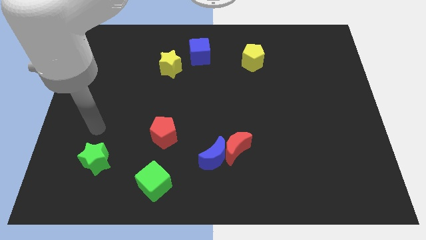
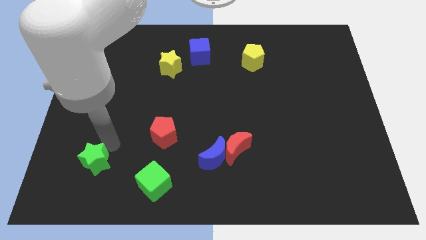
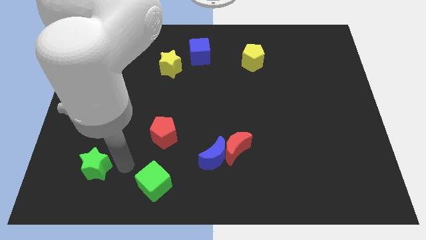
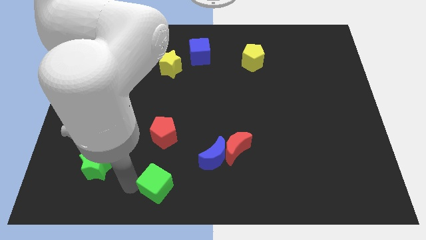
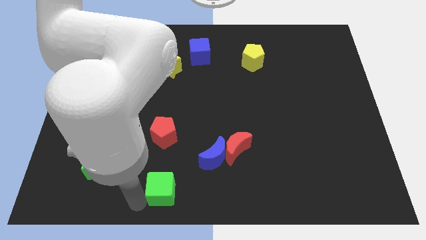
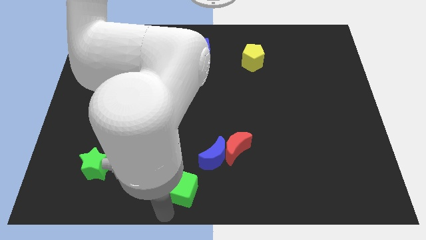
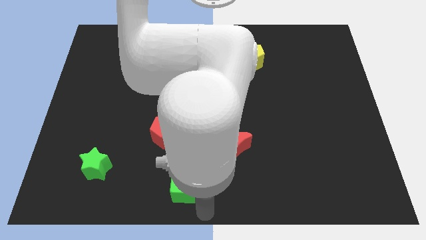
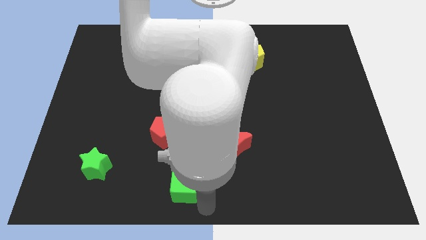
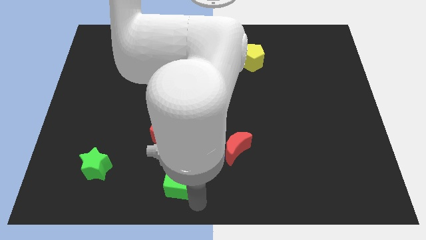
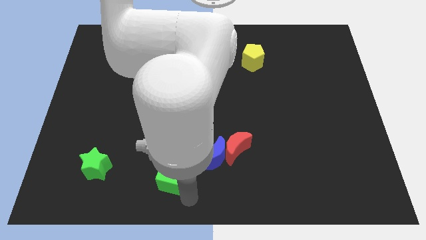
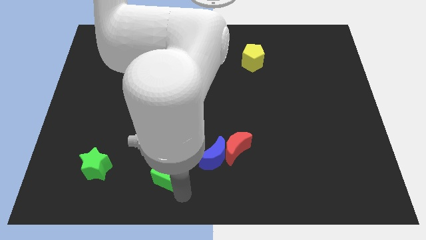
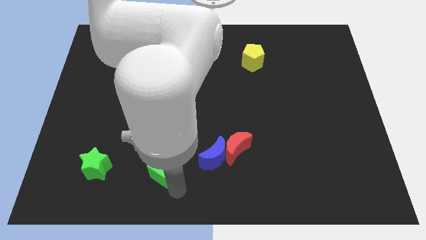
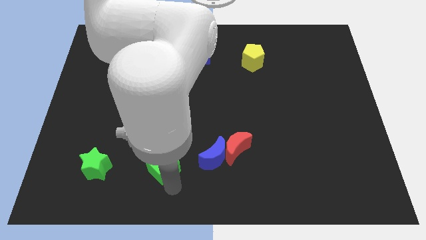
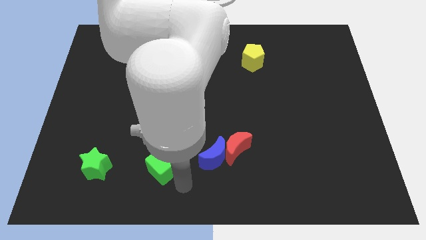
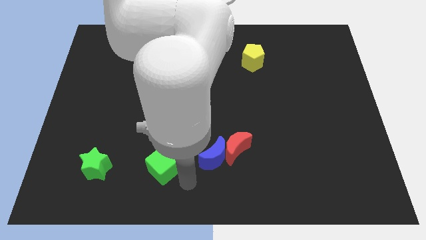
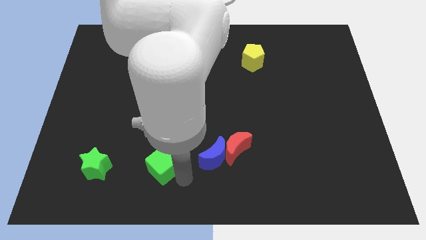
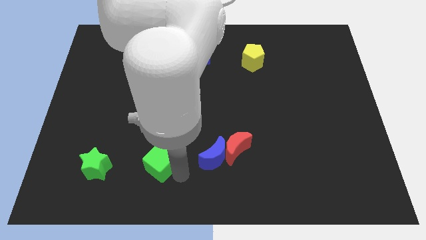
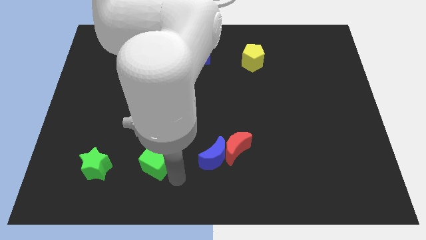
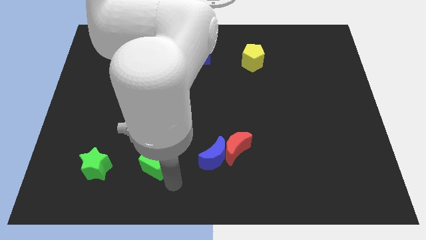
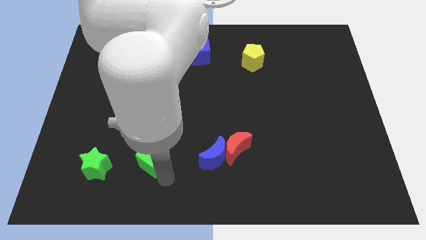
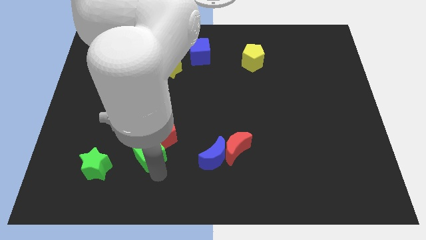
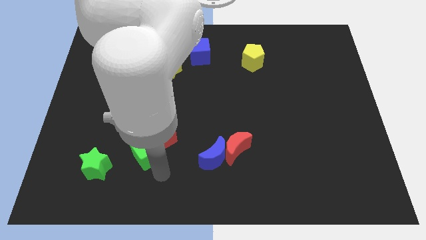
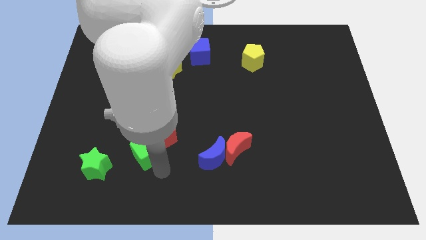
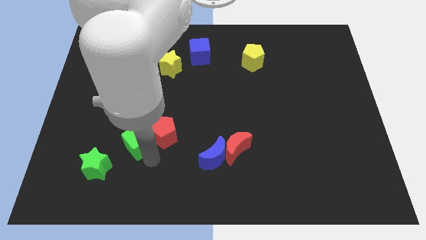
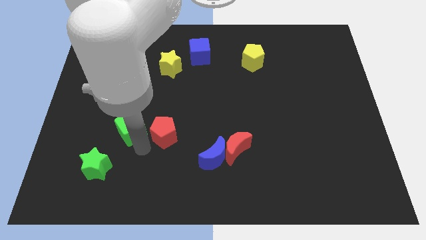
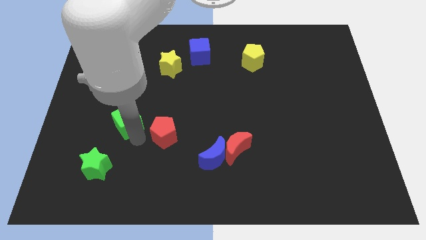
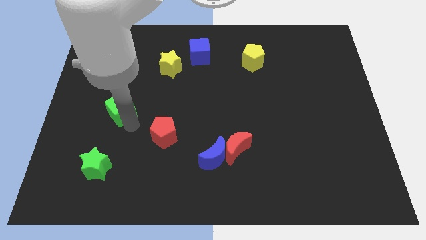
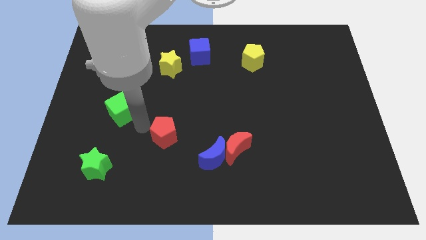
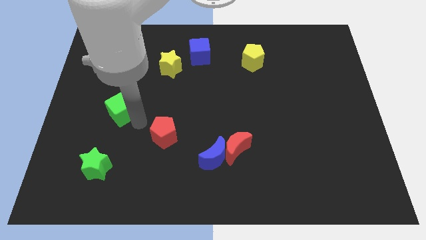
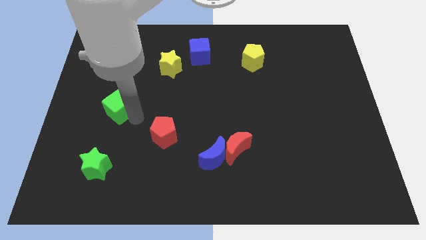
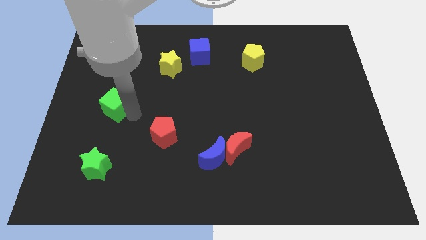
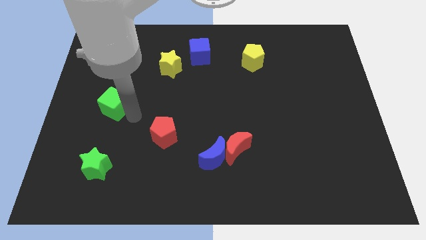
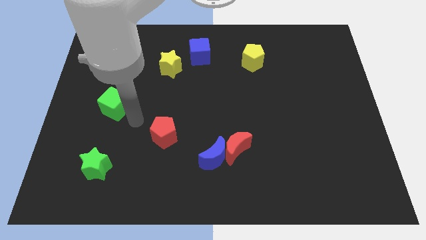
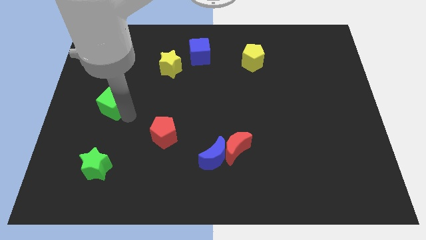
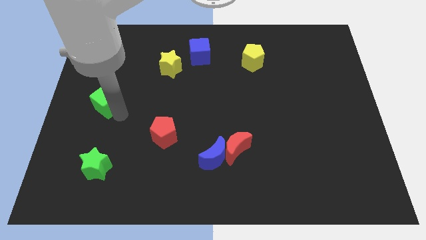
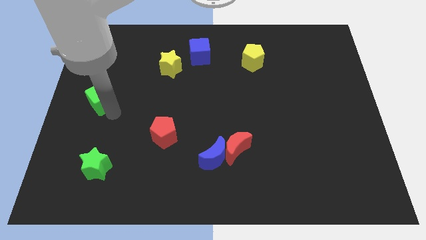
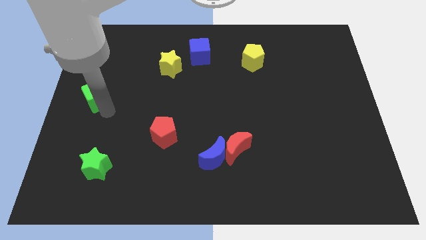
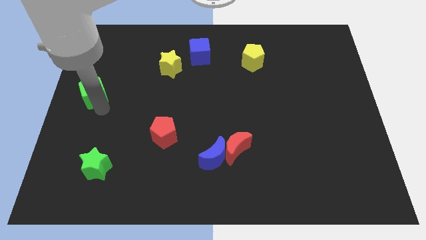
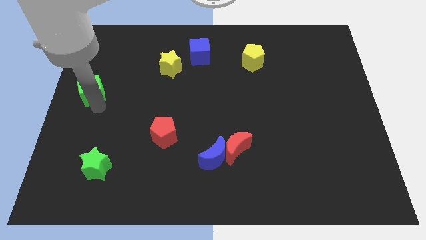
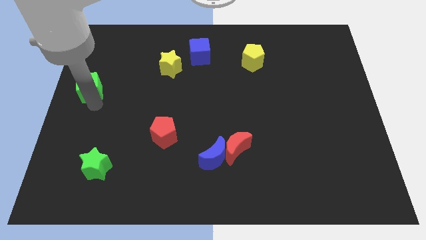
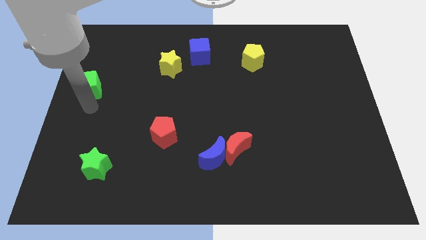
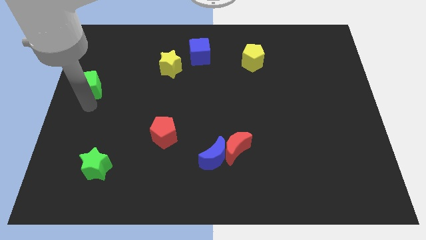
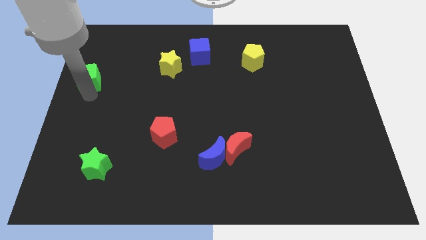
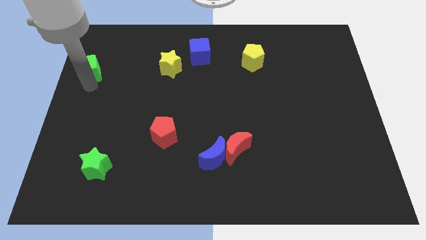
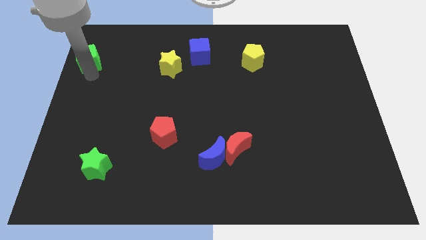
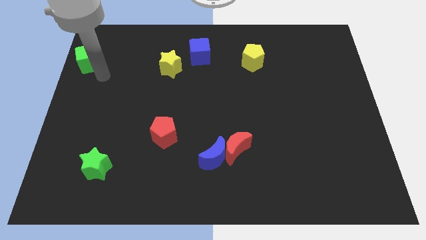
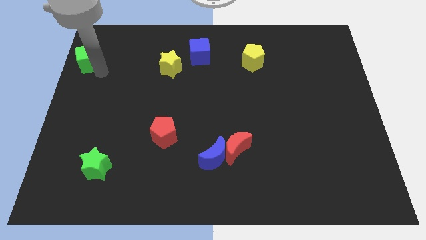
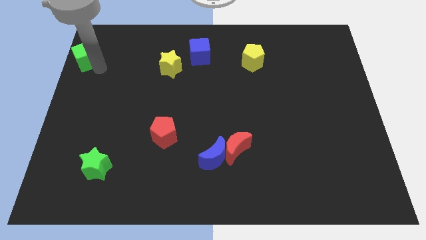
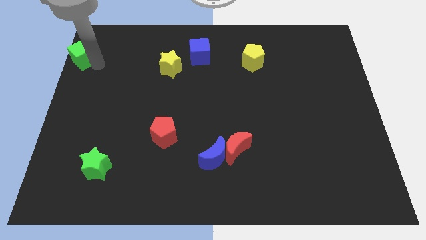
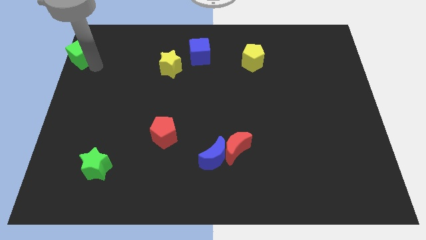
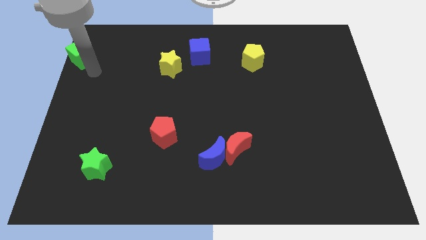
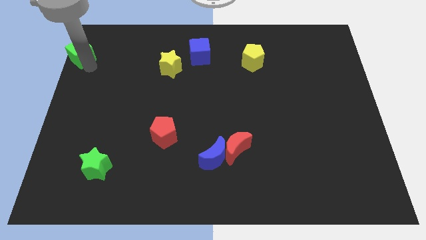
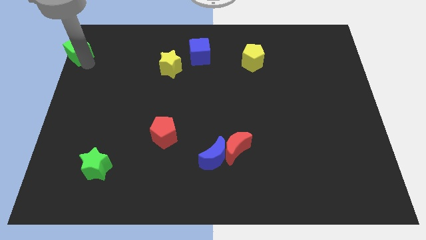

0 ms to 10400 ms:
slide the green cube to the upper left corner

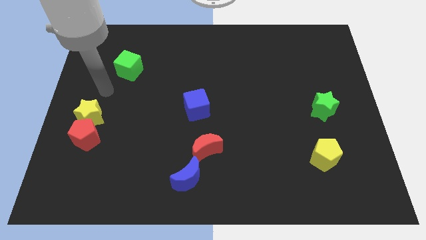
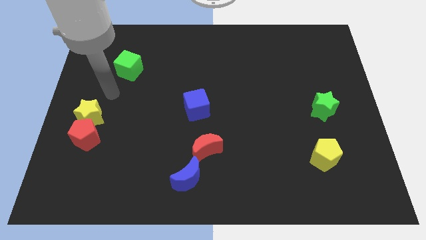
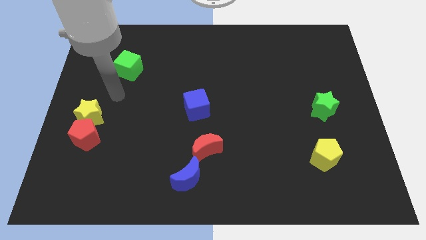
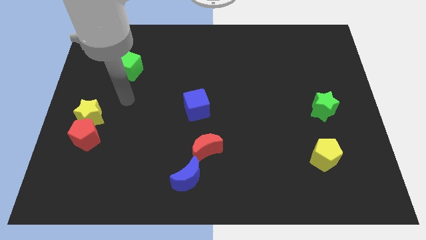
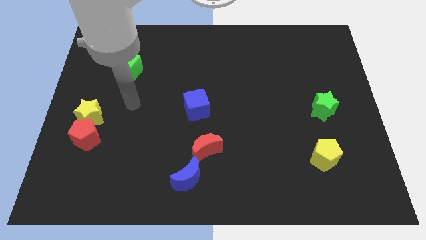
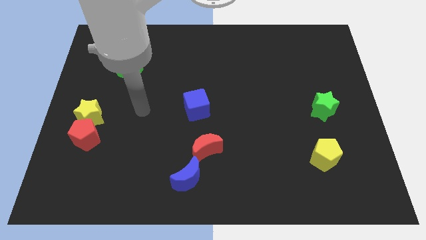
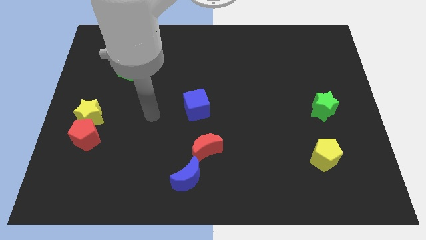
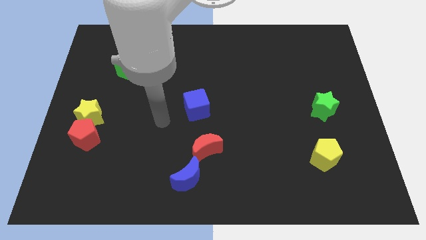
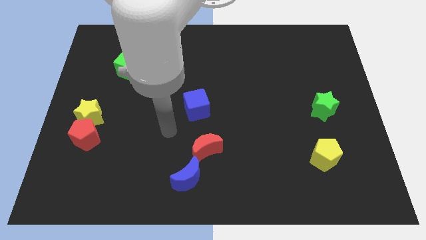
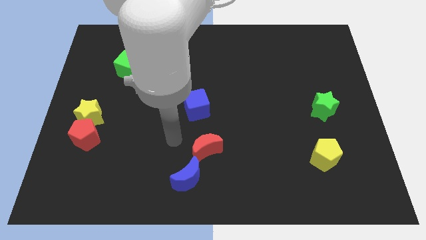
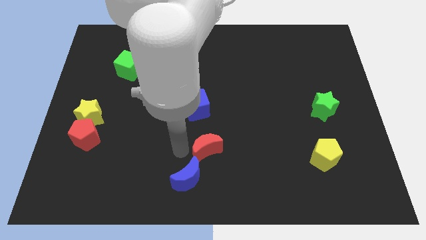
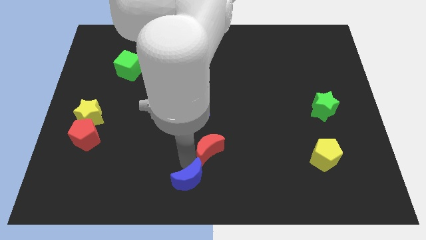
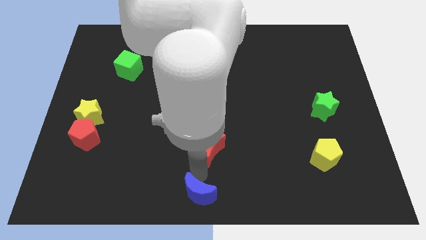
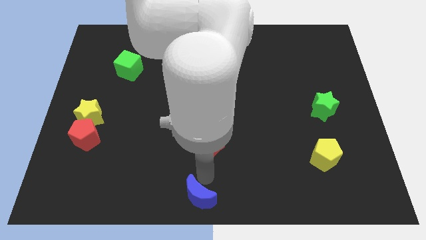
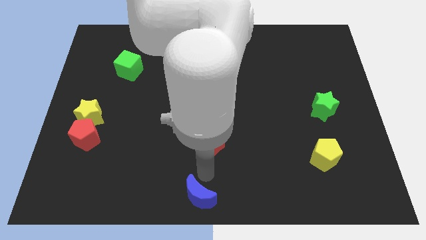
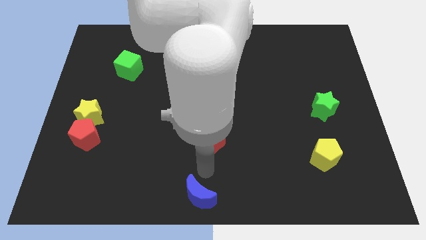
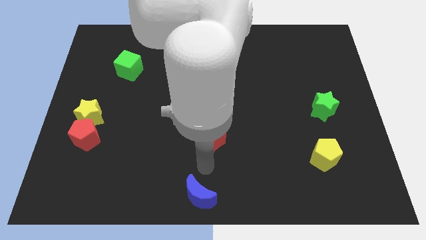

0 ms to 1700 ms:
put the red moon to the center of the board

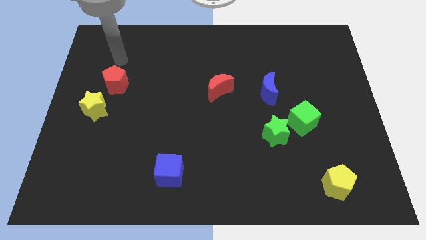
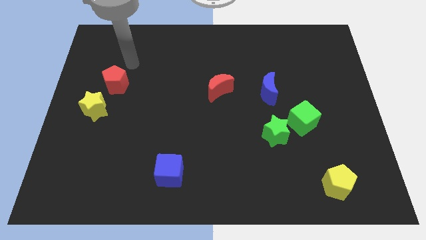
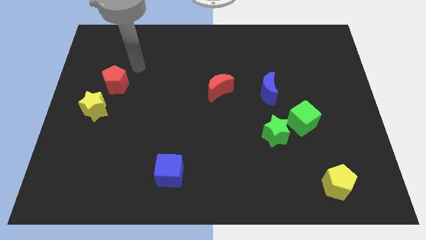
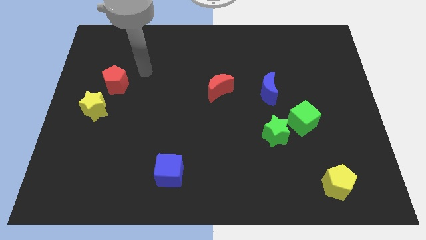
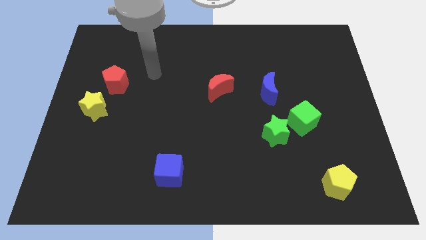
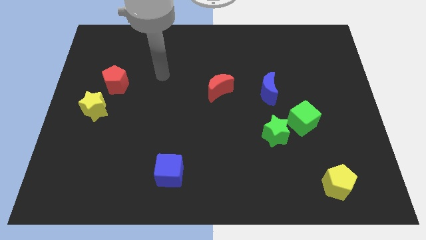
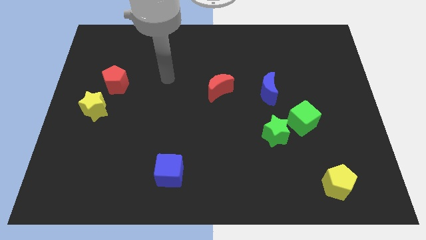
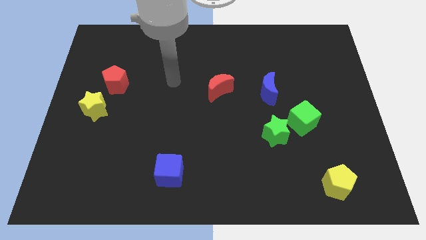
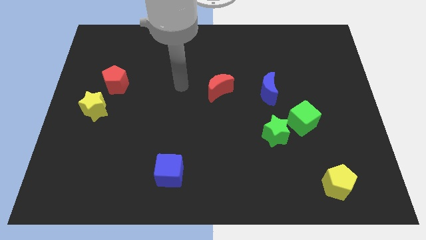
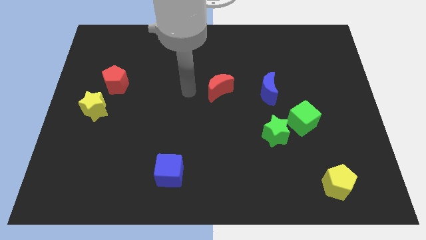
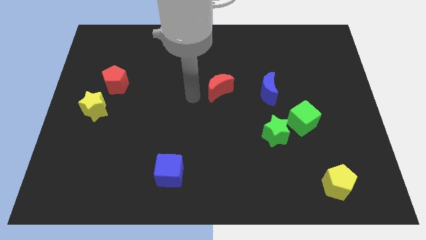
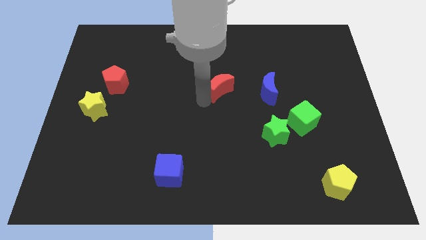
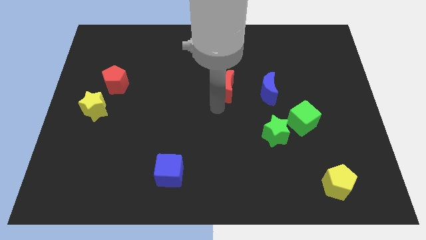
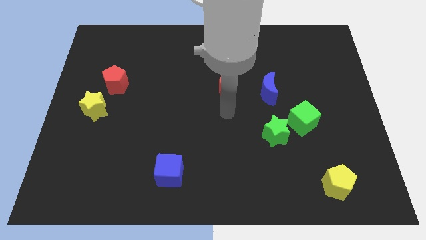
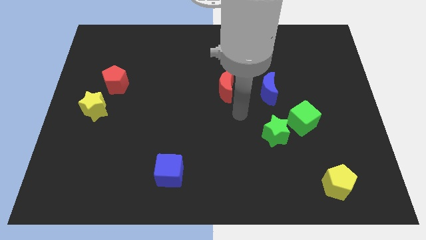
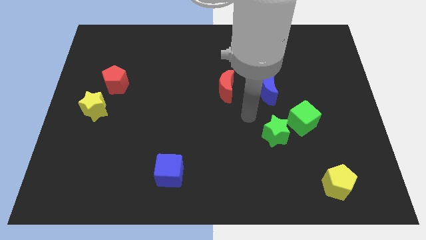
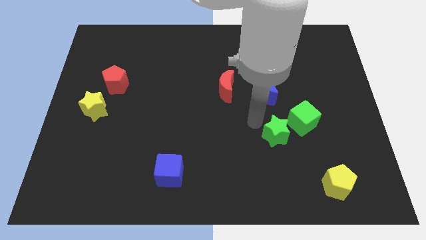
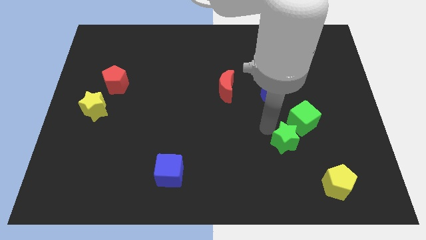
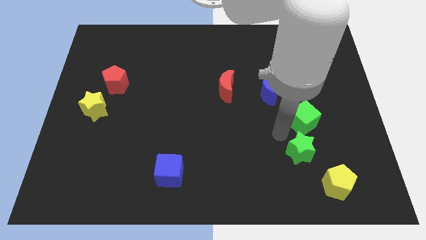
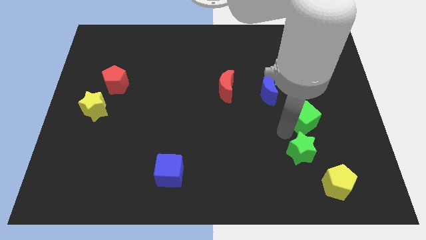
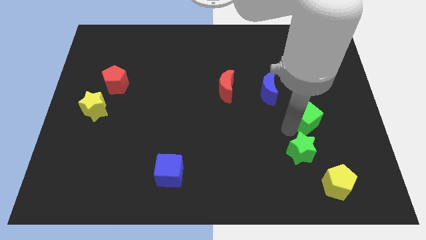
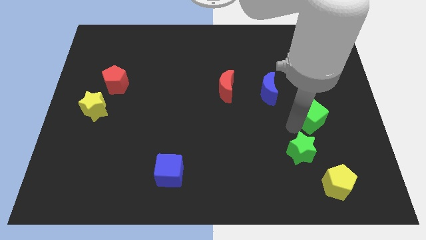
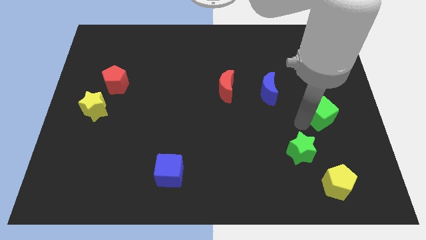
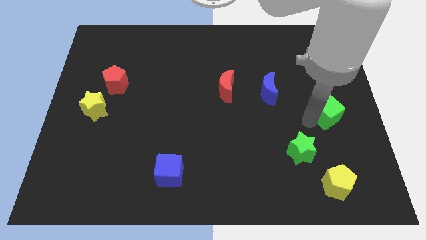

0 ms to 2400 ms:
put the green cube to the right side of the board
